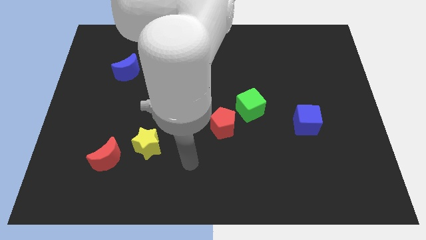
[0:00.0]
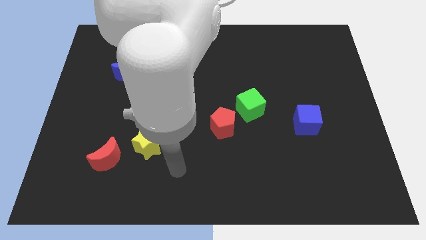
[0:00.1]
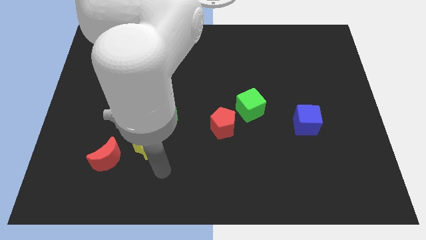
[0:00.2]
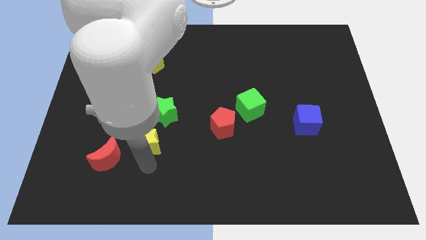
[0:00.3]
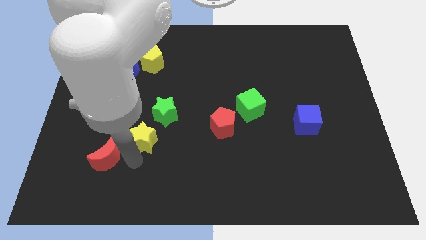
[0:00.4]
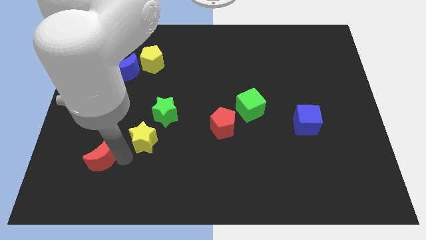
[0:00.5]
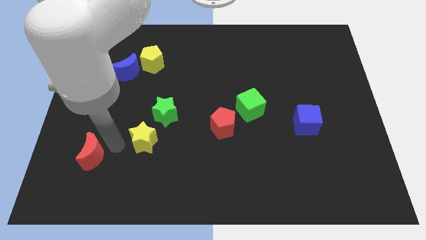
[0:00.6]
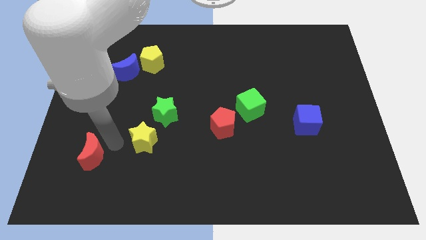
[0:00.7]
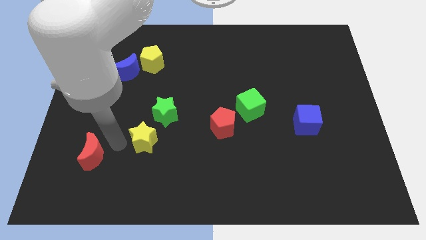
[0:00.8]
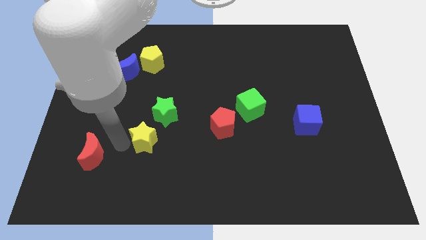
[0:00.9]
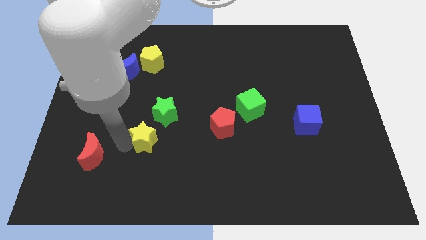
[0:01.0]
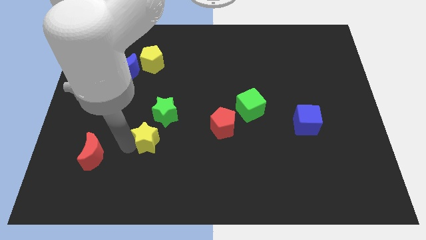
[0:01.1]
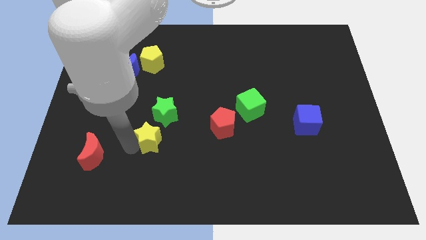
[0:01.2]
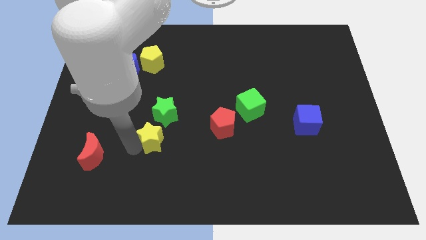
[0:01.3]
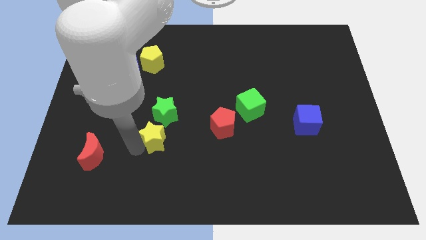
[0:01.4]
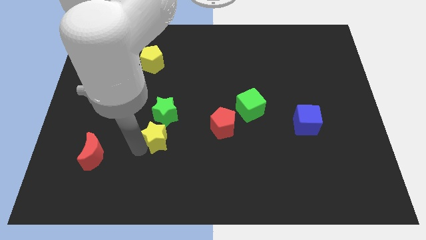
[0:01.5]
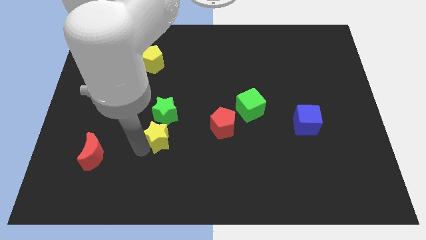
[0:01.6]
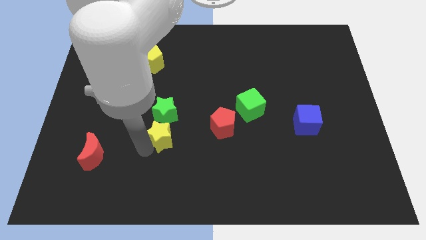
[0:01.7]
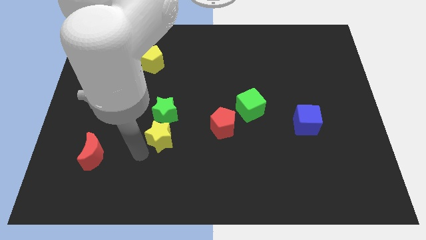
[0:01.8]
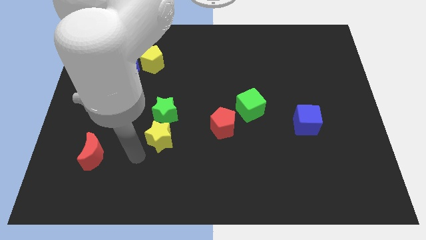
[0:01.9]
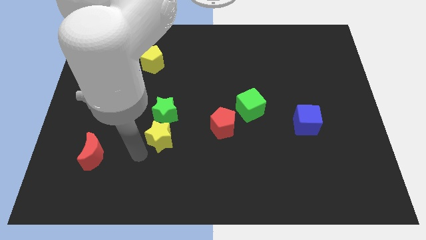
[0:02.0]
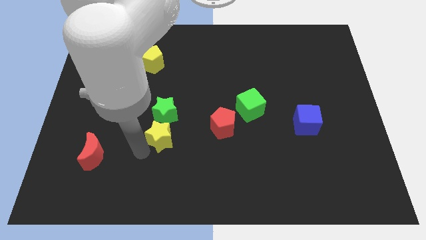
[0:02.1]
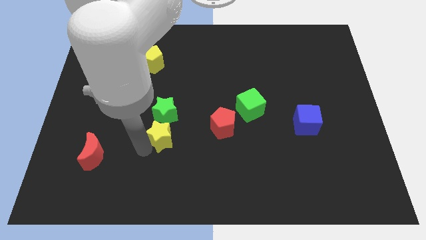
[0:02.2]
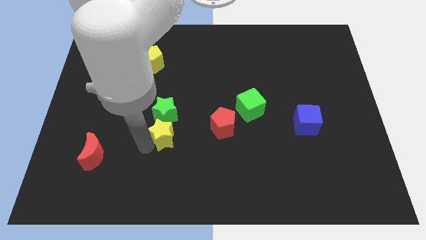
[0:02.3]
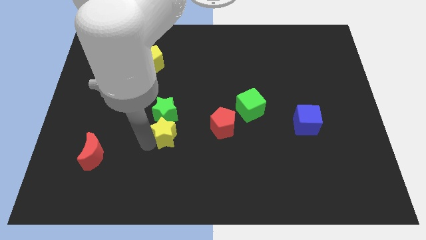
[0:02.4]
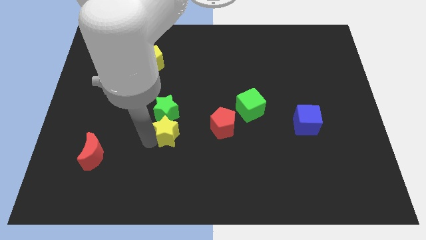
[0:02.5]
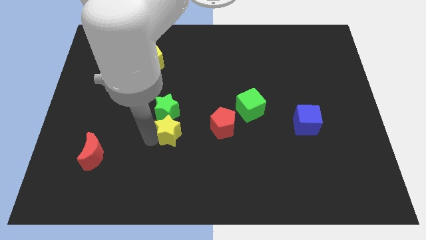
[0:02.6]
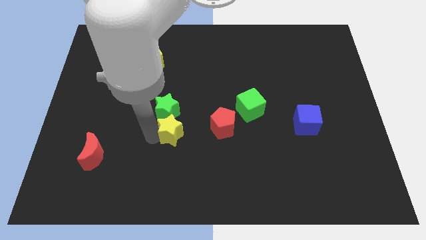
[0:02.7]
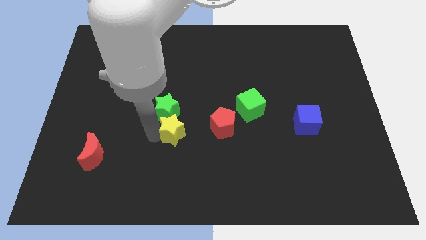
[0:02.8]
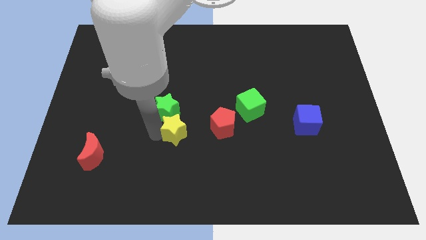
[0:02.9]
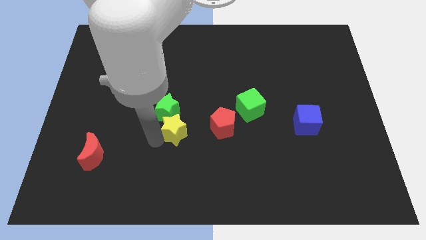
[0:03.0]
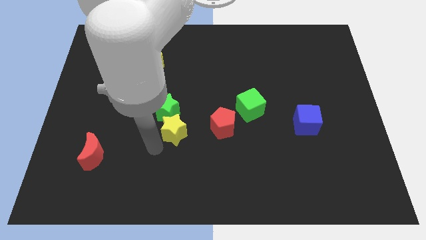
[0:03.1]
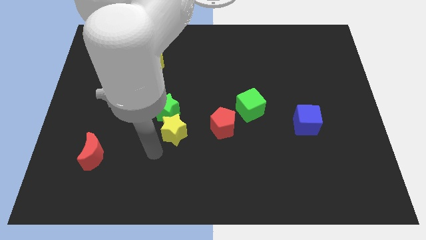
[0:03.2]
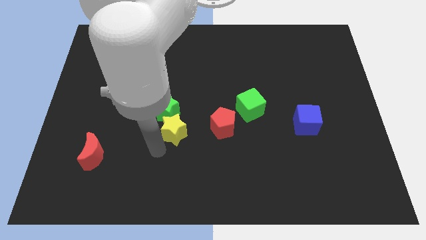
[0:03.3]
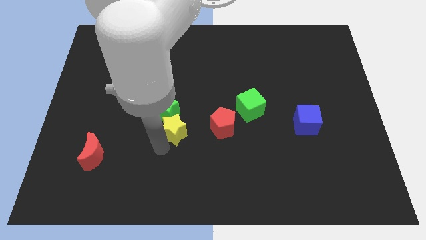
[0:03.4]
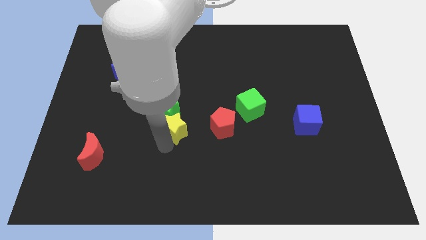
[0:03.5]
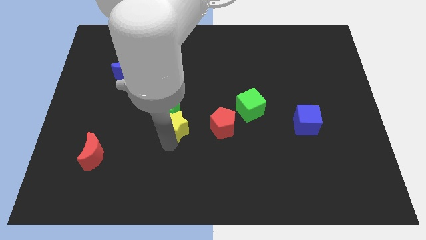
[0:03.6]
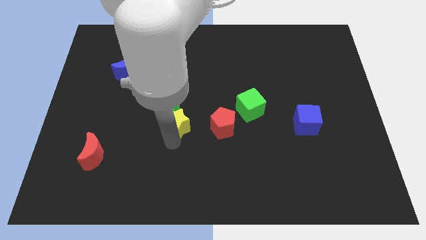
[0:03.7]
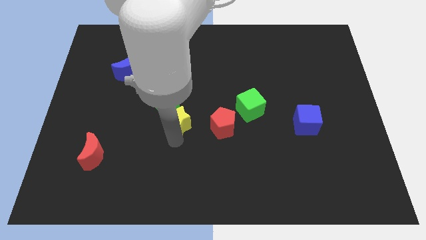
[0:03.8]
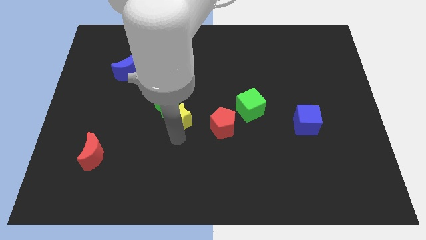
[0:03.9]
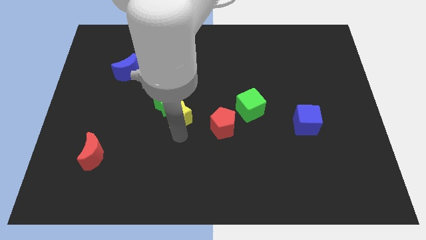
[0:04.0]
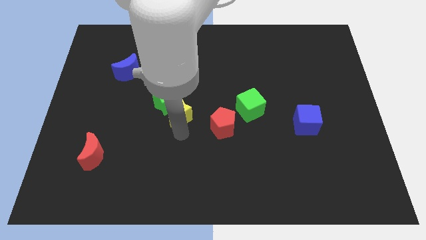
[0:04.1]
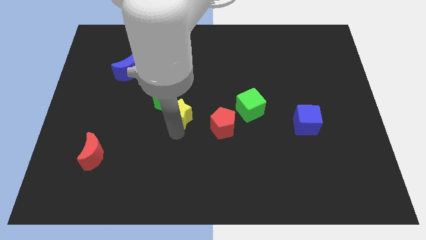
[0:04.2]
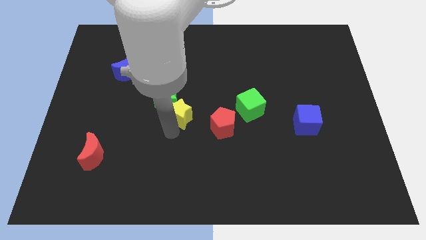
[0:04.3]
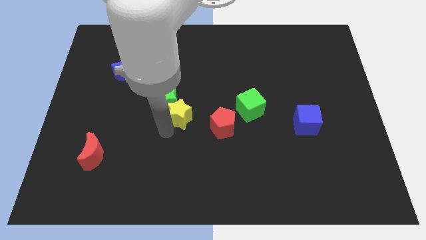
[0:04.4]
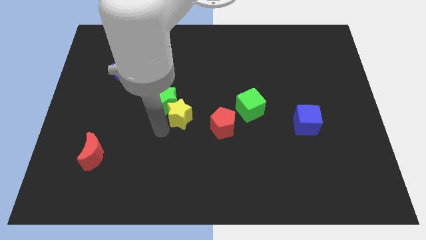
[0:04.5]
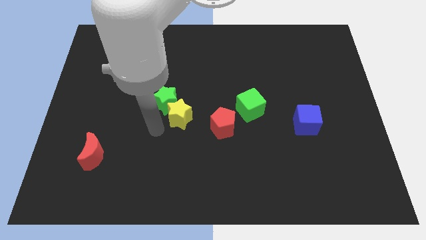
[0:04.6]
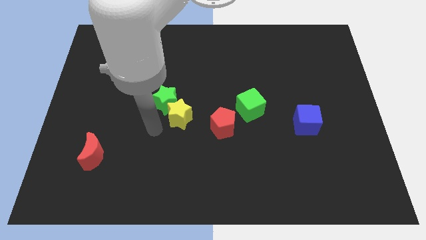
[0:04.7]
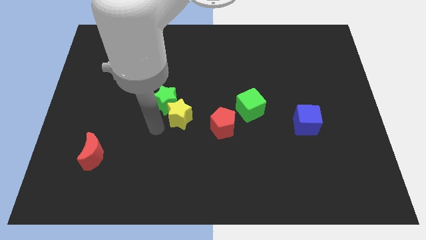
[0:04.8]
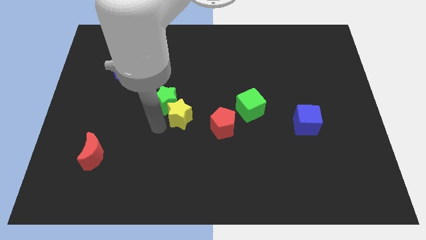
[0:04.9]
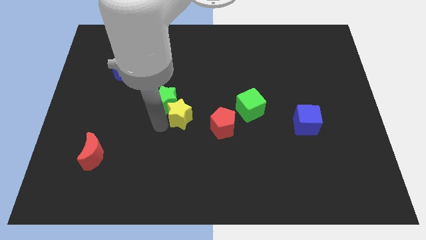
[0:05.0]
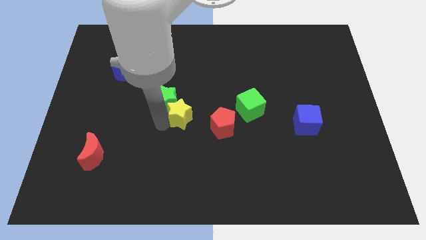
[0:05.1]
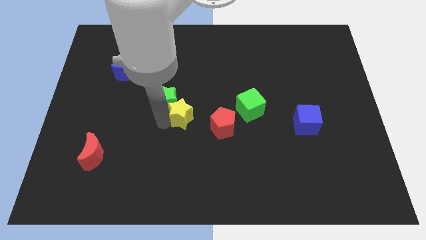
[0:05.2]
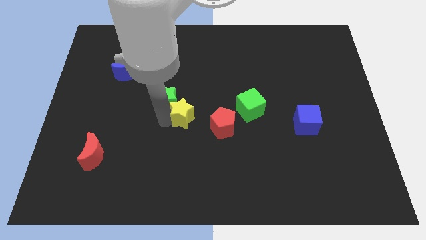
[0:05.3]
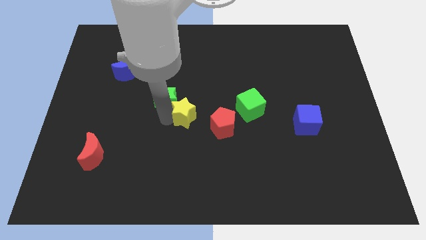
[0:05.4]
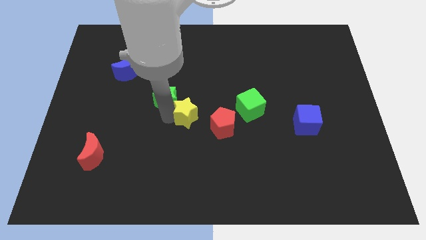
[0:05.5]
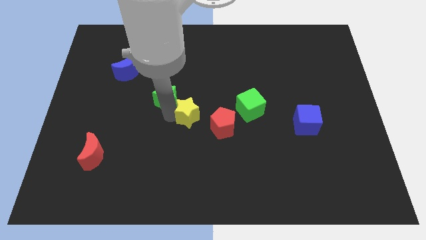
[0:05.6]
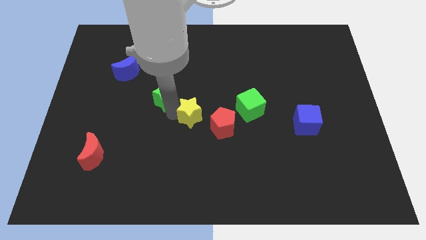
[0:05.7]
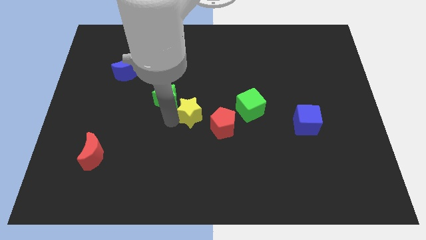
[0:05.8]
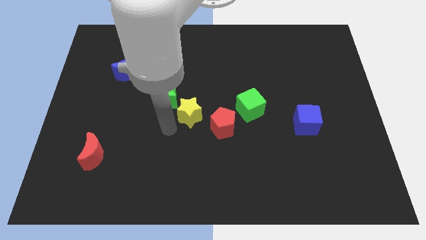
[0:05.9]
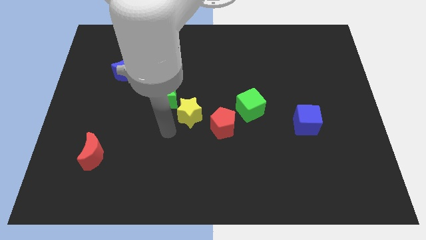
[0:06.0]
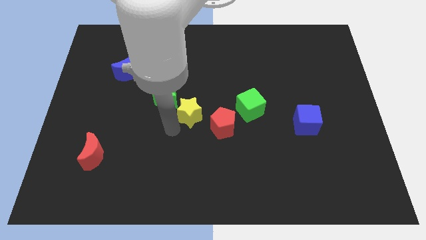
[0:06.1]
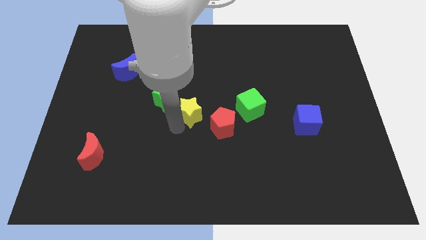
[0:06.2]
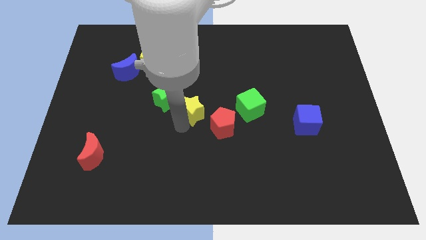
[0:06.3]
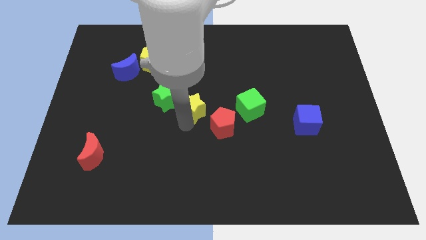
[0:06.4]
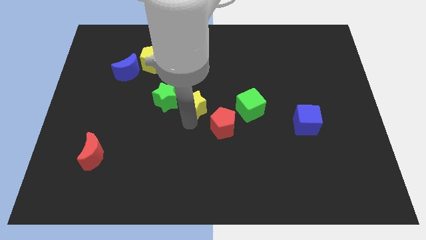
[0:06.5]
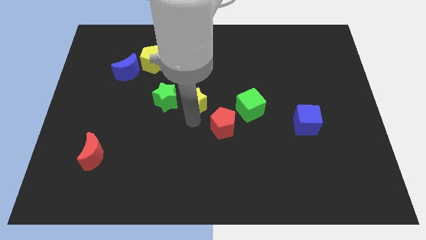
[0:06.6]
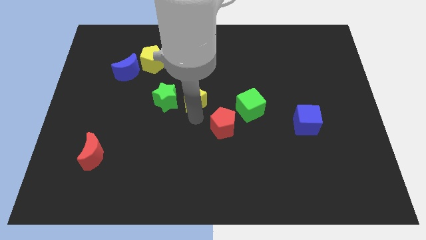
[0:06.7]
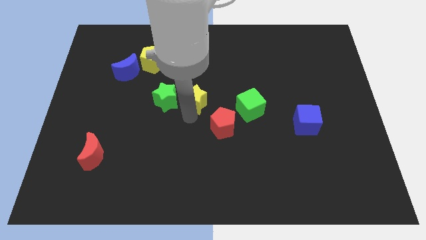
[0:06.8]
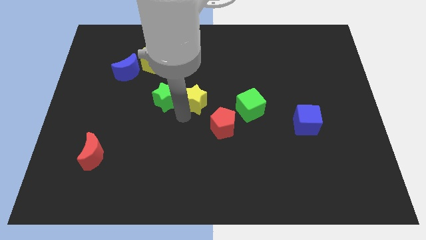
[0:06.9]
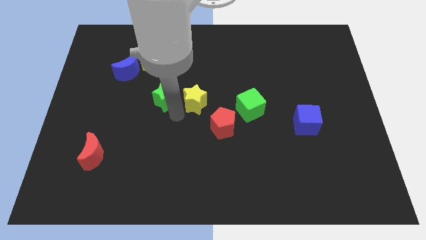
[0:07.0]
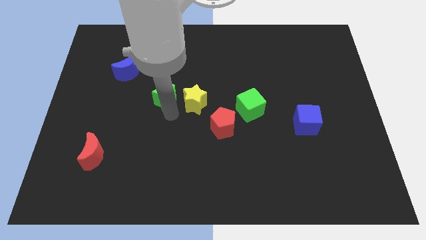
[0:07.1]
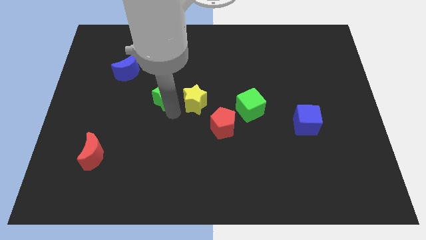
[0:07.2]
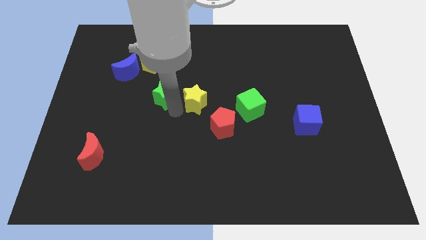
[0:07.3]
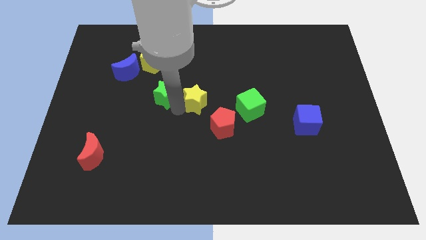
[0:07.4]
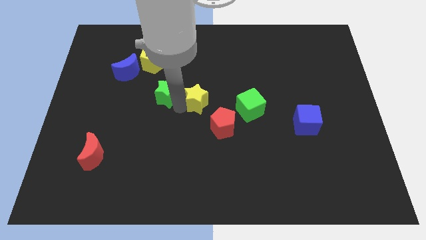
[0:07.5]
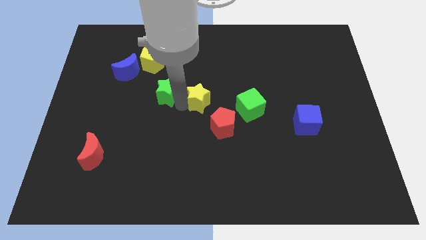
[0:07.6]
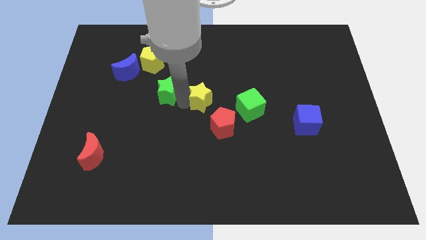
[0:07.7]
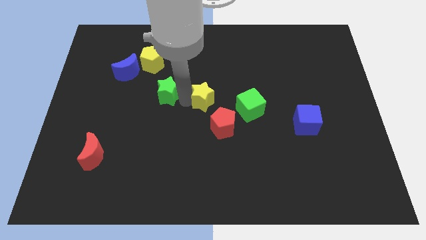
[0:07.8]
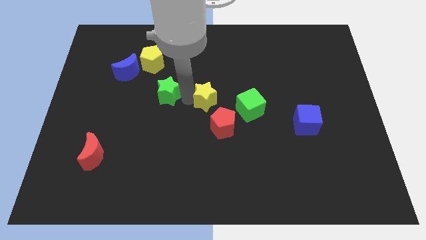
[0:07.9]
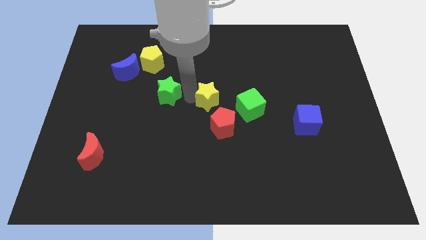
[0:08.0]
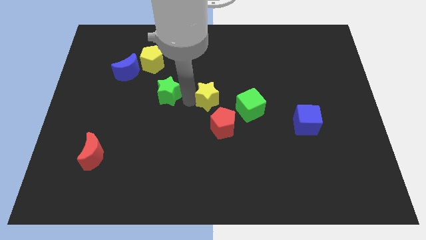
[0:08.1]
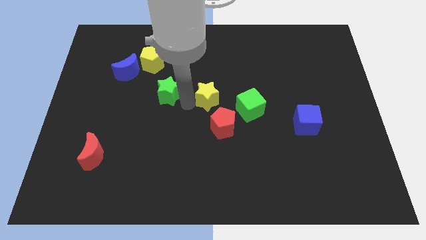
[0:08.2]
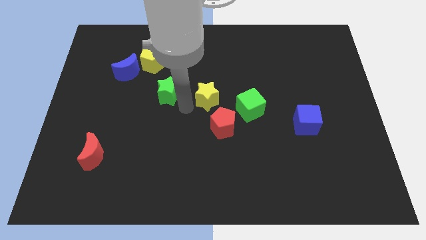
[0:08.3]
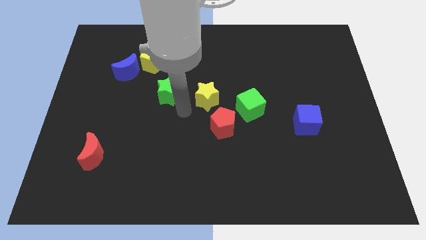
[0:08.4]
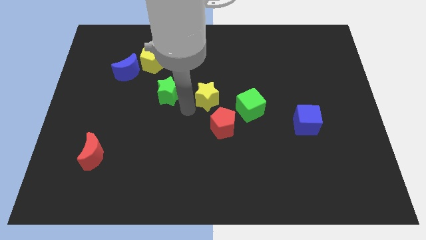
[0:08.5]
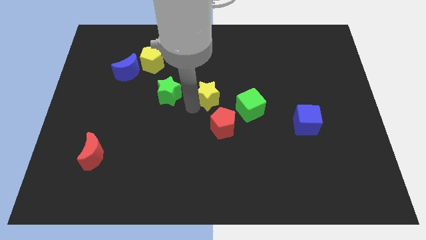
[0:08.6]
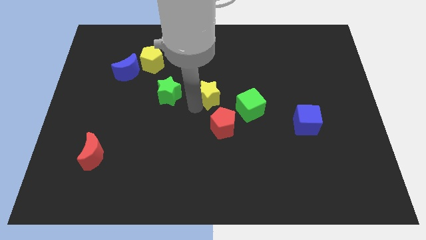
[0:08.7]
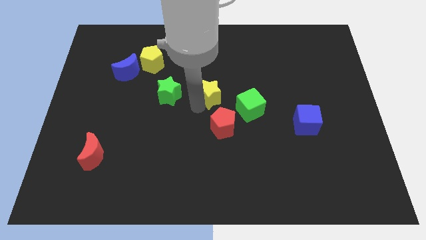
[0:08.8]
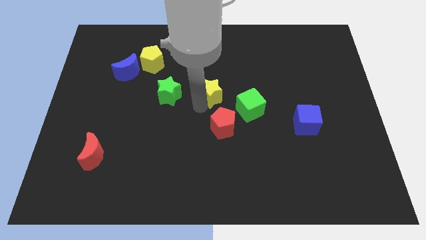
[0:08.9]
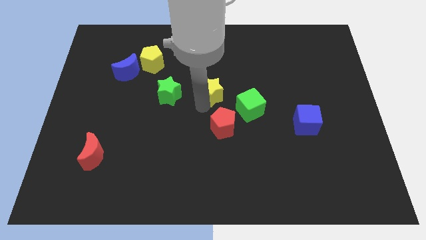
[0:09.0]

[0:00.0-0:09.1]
move the yellow star up and right diagonally
